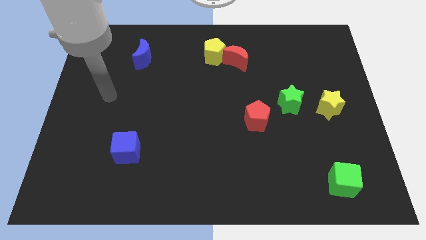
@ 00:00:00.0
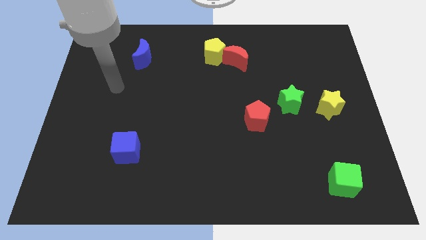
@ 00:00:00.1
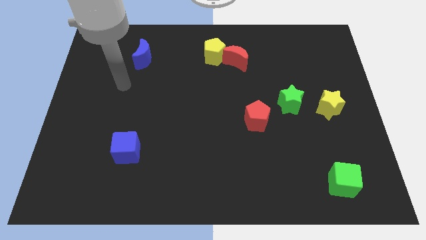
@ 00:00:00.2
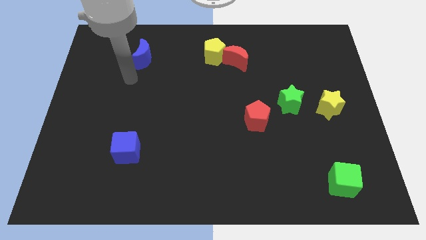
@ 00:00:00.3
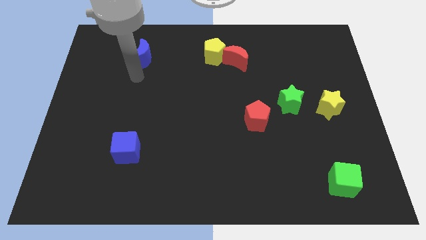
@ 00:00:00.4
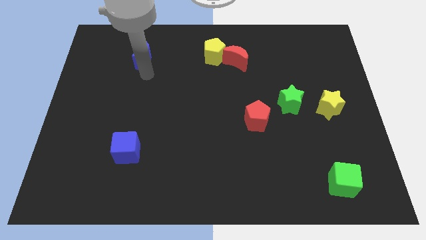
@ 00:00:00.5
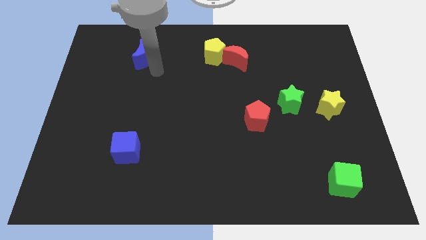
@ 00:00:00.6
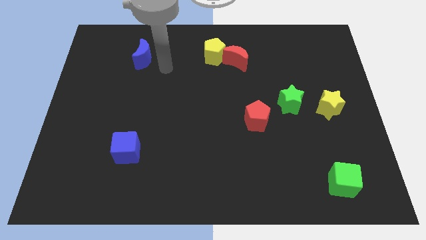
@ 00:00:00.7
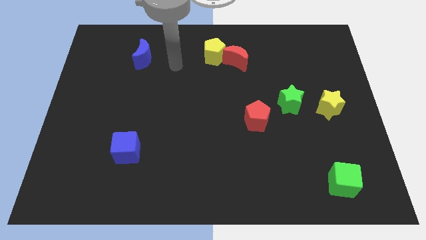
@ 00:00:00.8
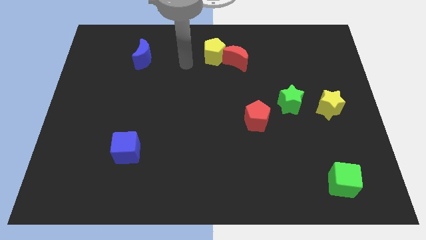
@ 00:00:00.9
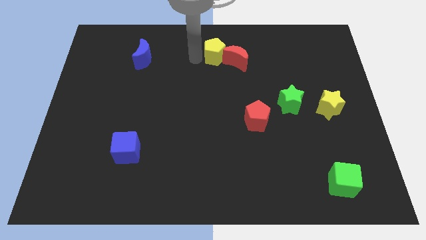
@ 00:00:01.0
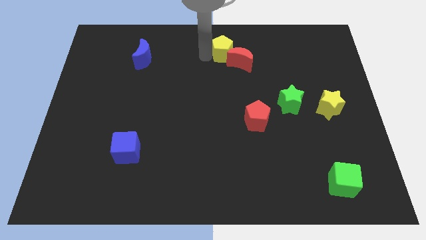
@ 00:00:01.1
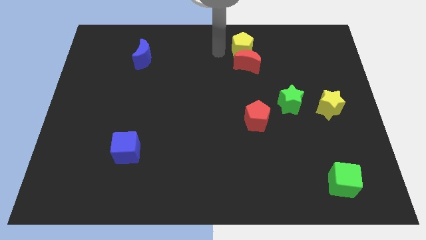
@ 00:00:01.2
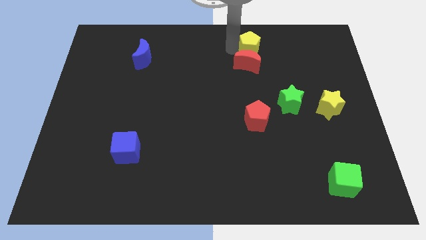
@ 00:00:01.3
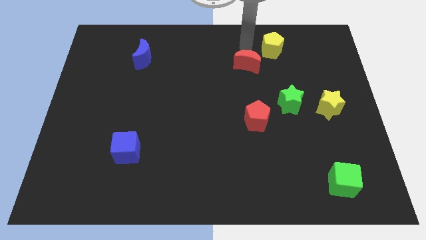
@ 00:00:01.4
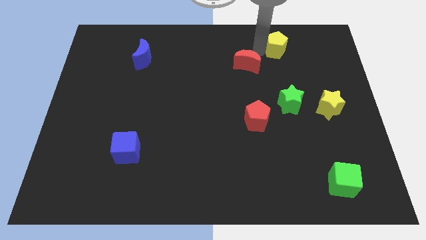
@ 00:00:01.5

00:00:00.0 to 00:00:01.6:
separate the red moon from the yellow pentagon

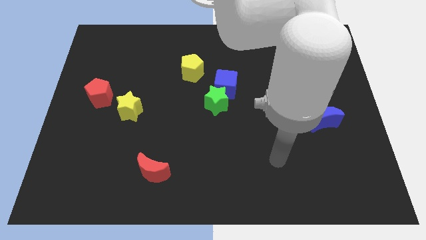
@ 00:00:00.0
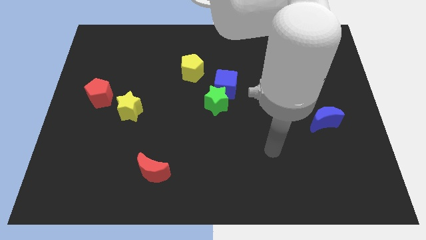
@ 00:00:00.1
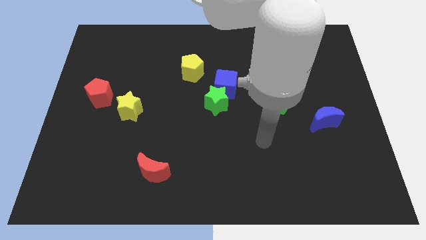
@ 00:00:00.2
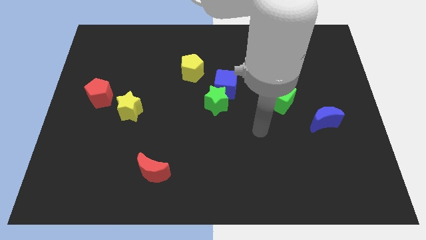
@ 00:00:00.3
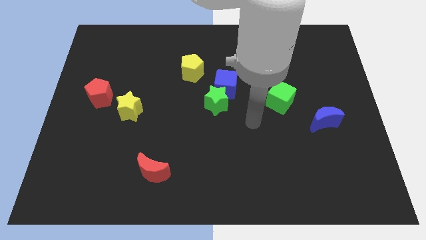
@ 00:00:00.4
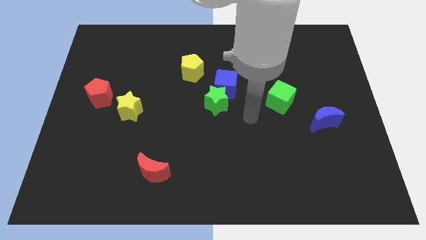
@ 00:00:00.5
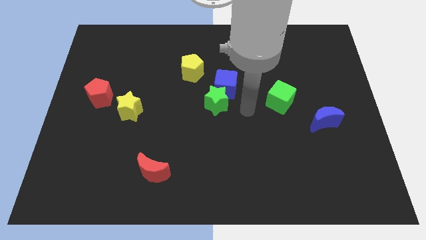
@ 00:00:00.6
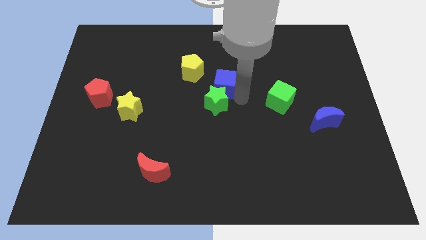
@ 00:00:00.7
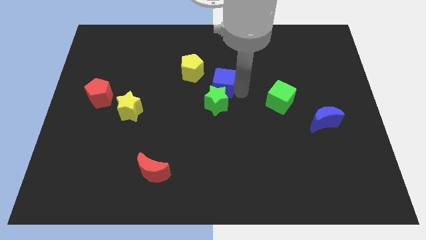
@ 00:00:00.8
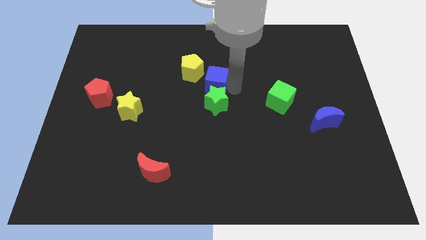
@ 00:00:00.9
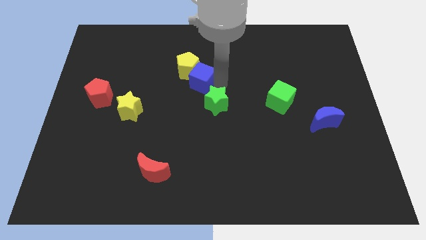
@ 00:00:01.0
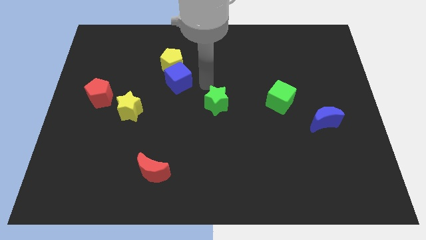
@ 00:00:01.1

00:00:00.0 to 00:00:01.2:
separate the green star from the blue cube

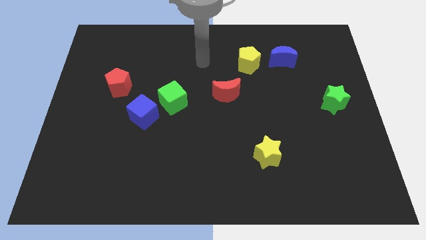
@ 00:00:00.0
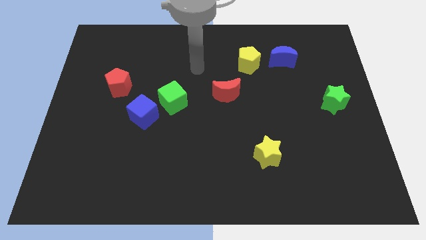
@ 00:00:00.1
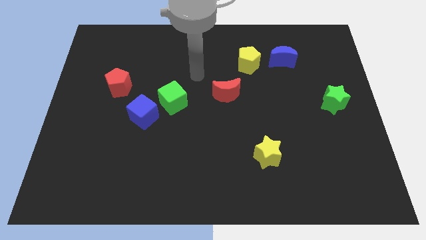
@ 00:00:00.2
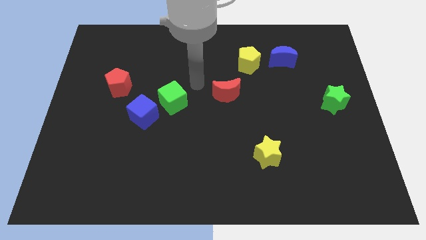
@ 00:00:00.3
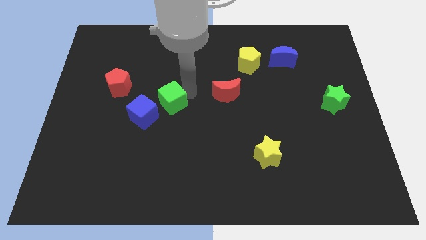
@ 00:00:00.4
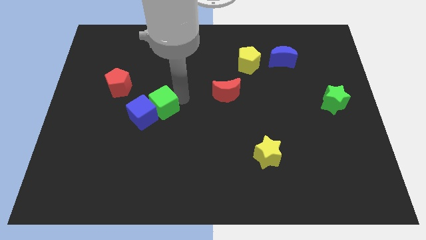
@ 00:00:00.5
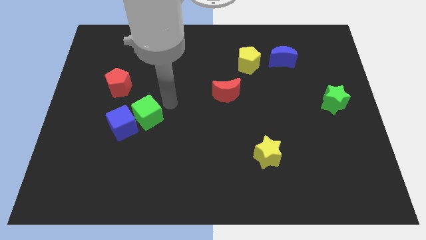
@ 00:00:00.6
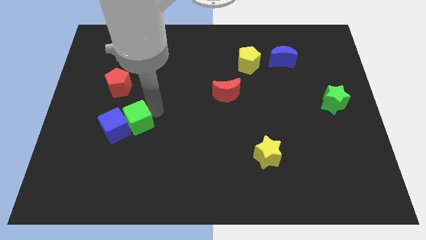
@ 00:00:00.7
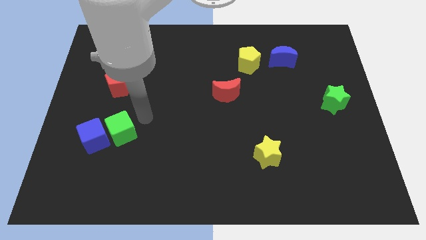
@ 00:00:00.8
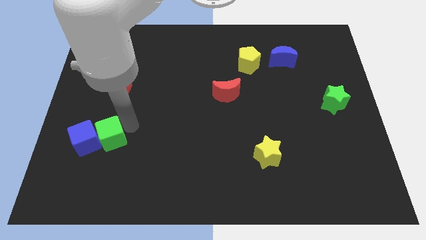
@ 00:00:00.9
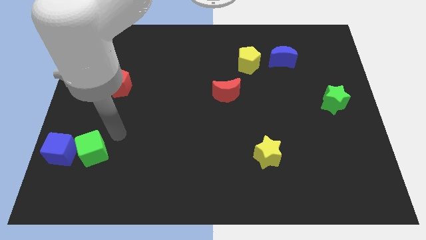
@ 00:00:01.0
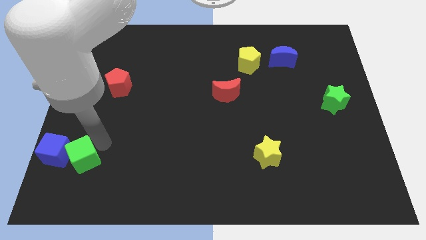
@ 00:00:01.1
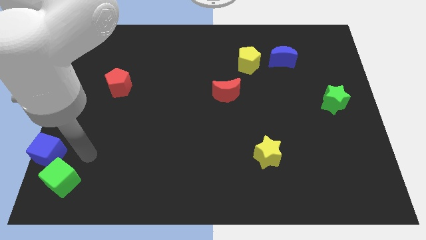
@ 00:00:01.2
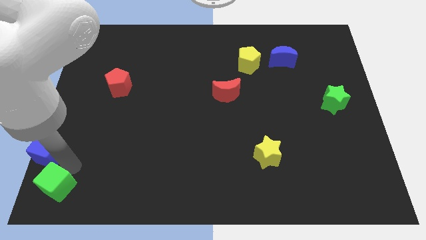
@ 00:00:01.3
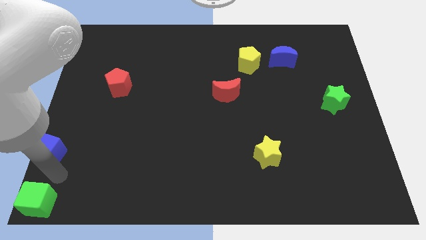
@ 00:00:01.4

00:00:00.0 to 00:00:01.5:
pull the blue cube apart from the green cube

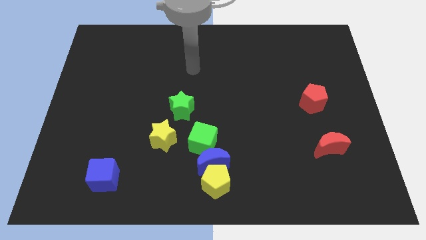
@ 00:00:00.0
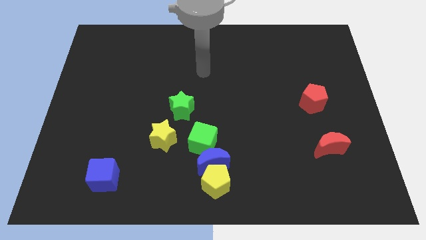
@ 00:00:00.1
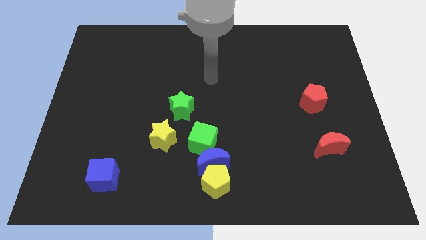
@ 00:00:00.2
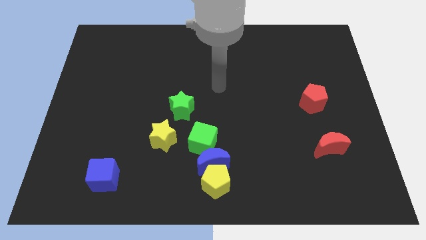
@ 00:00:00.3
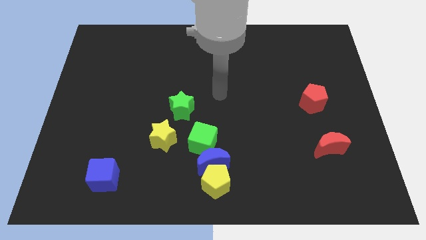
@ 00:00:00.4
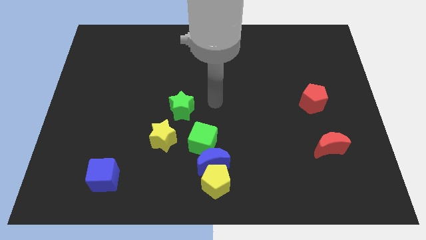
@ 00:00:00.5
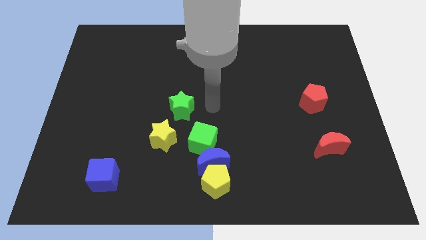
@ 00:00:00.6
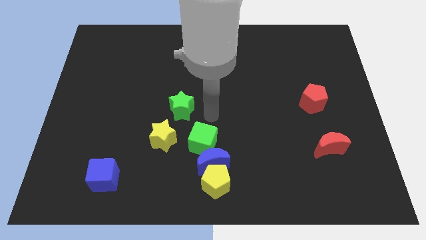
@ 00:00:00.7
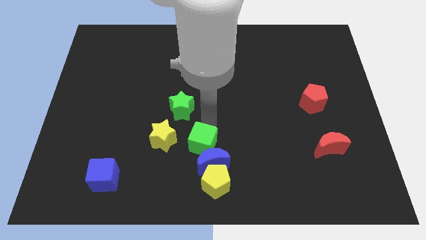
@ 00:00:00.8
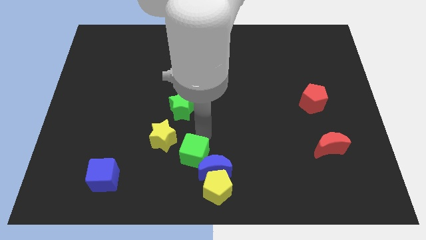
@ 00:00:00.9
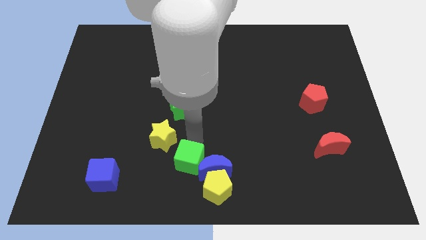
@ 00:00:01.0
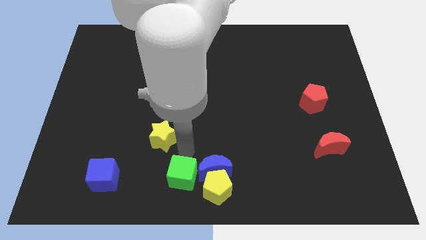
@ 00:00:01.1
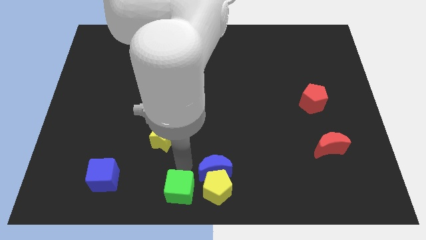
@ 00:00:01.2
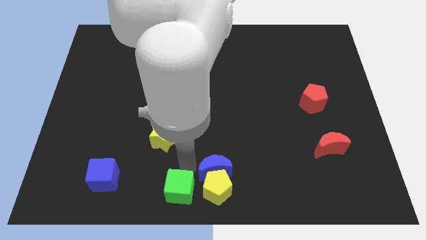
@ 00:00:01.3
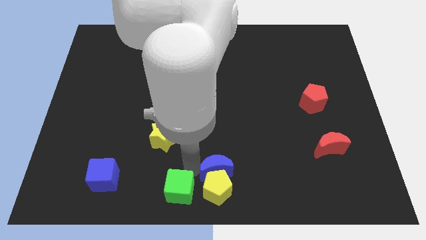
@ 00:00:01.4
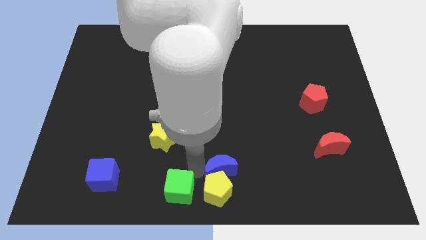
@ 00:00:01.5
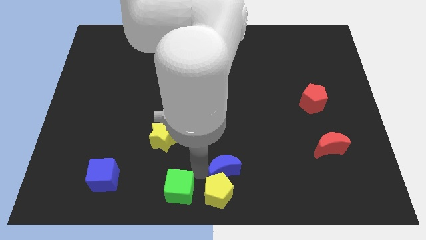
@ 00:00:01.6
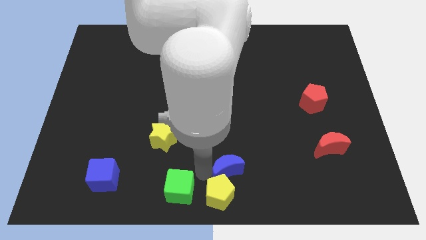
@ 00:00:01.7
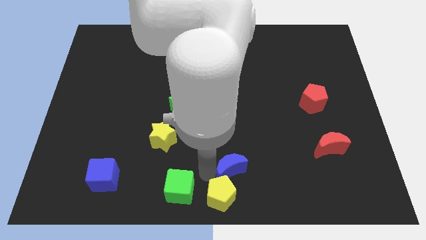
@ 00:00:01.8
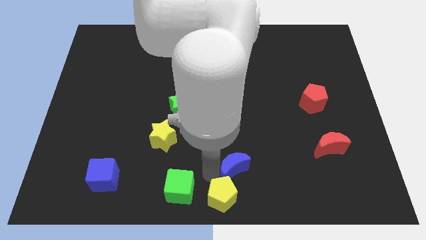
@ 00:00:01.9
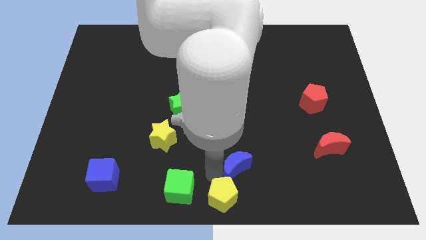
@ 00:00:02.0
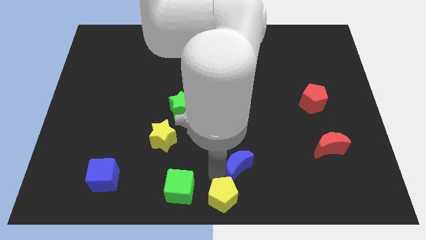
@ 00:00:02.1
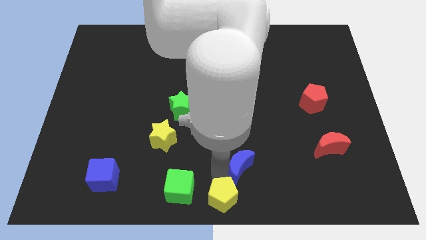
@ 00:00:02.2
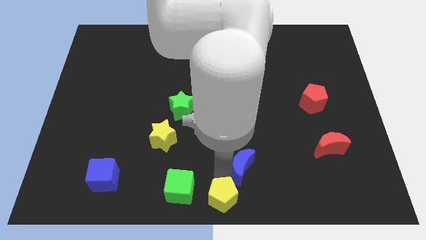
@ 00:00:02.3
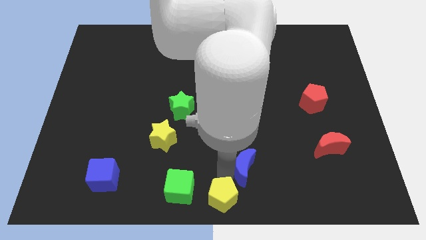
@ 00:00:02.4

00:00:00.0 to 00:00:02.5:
pull the blue moon apart from the yellow pentagon and green cube

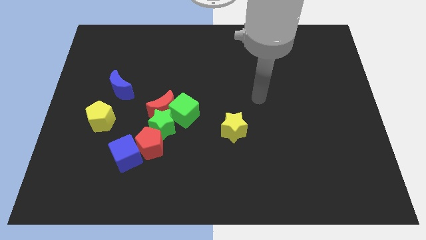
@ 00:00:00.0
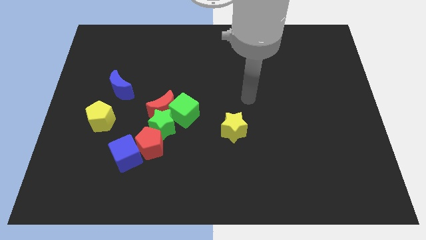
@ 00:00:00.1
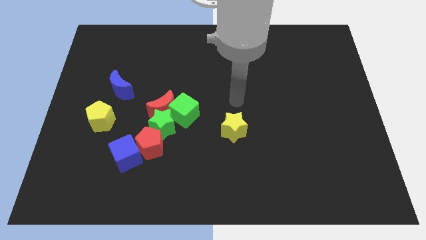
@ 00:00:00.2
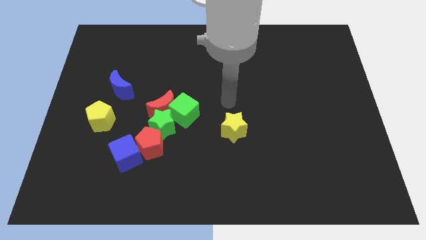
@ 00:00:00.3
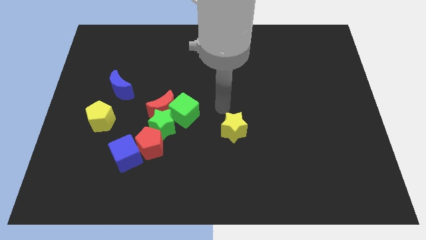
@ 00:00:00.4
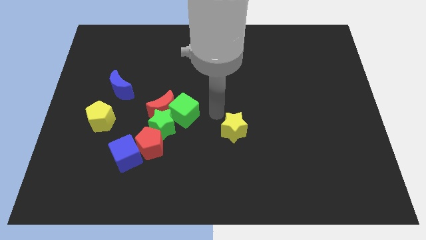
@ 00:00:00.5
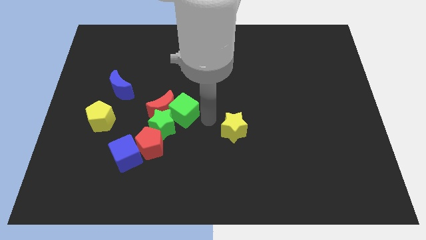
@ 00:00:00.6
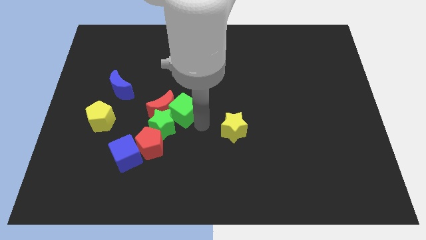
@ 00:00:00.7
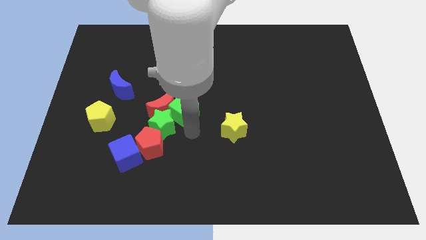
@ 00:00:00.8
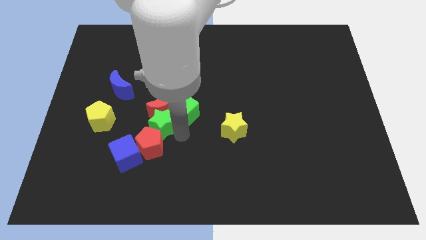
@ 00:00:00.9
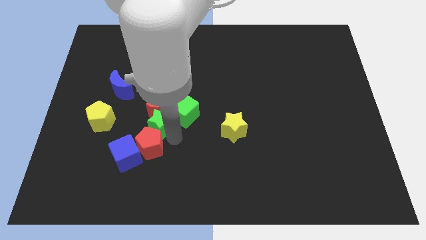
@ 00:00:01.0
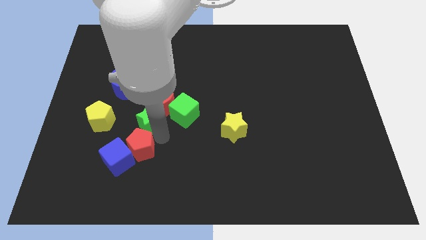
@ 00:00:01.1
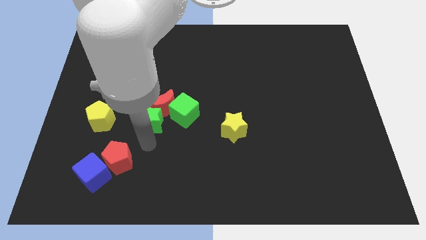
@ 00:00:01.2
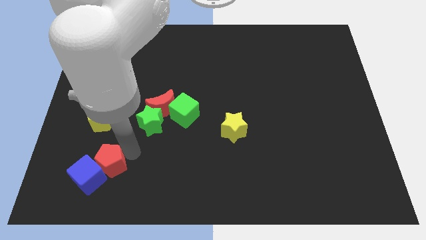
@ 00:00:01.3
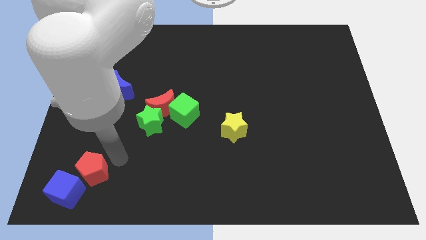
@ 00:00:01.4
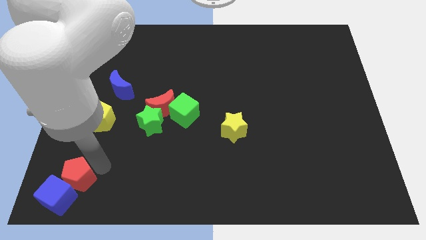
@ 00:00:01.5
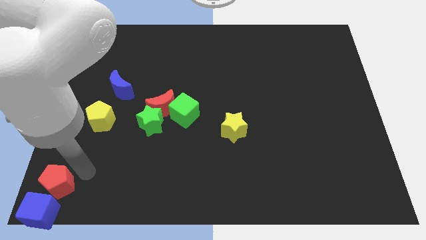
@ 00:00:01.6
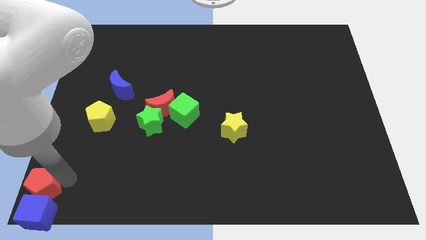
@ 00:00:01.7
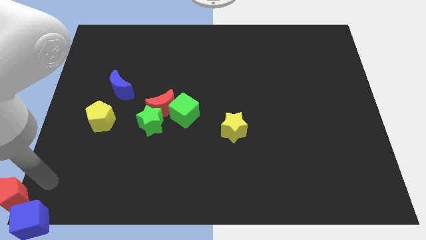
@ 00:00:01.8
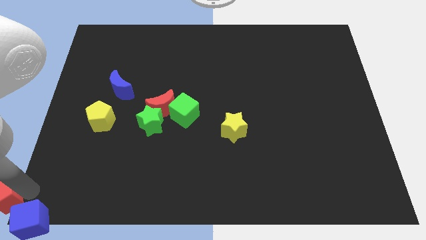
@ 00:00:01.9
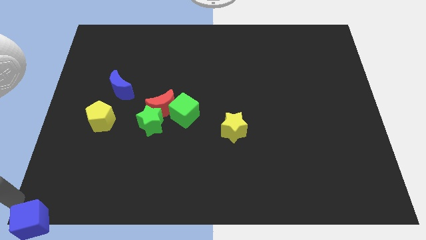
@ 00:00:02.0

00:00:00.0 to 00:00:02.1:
move the blue cube away from the red pentagon

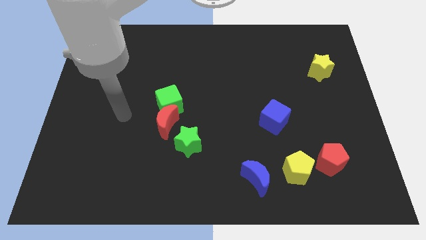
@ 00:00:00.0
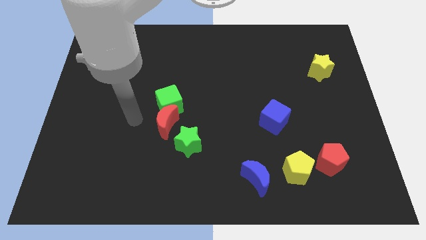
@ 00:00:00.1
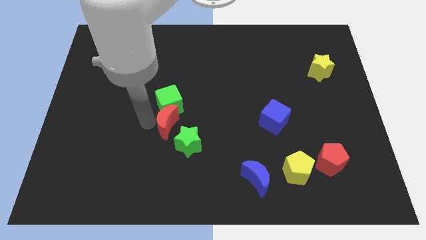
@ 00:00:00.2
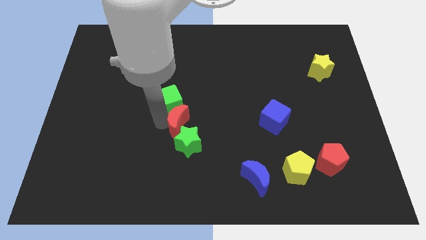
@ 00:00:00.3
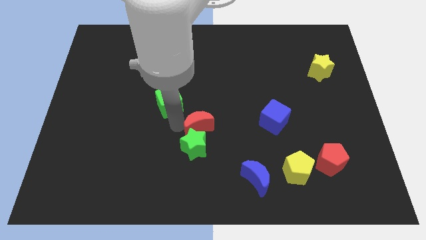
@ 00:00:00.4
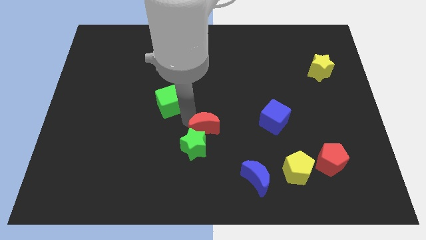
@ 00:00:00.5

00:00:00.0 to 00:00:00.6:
separate the green cube from the red moon
